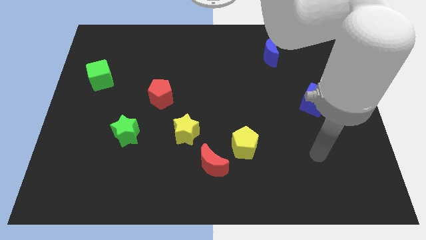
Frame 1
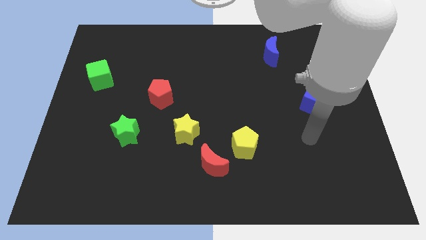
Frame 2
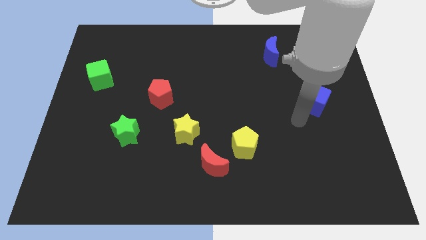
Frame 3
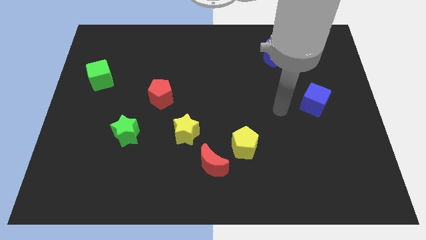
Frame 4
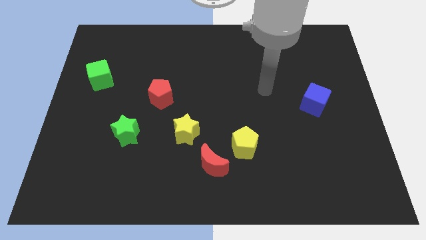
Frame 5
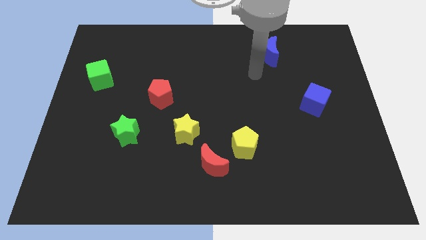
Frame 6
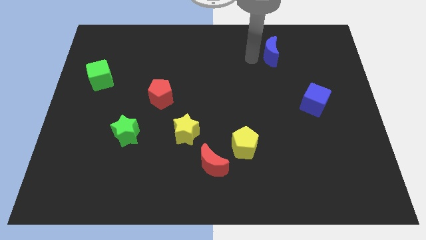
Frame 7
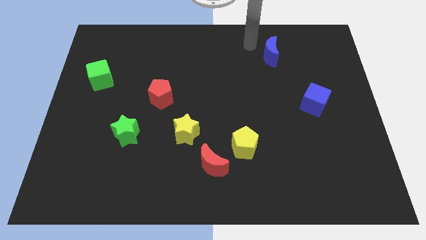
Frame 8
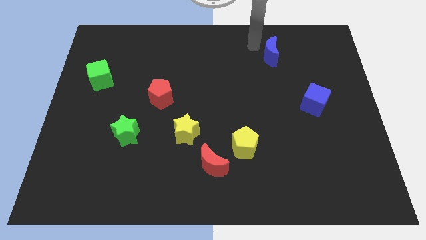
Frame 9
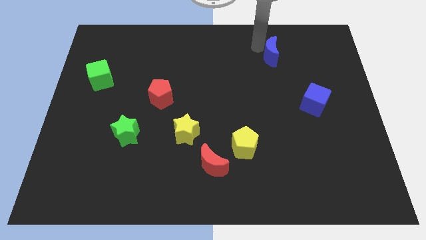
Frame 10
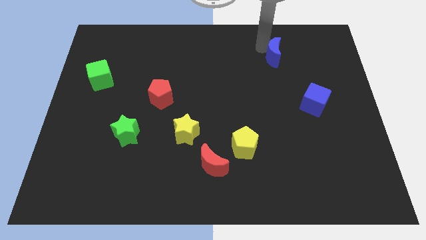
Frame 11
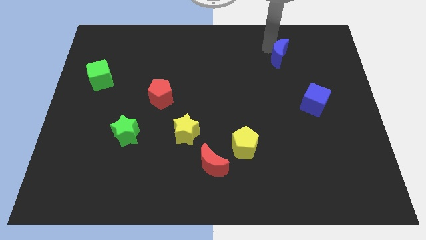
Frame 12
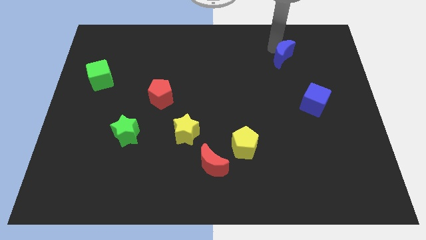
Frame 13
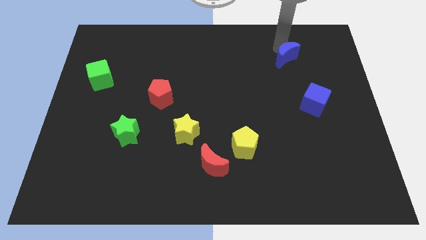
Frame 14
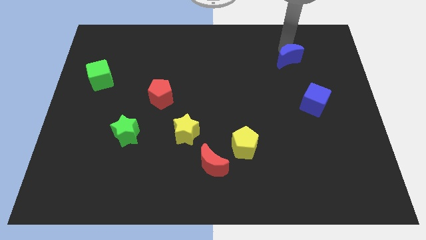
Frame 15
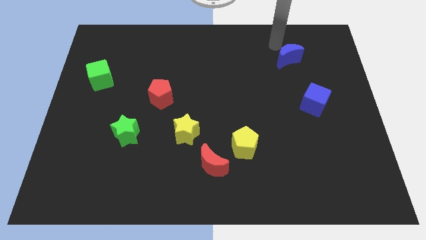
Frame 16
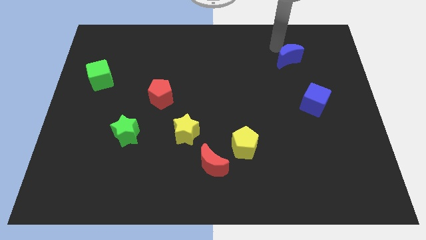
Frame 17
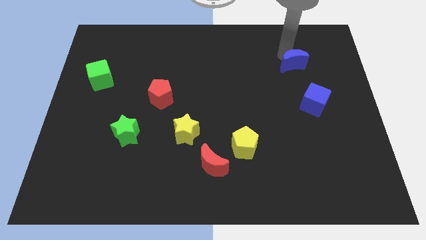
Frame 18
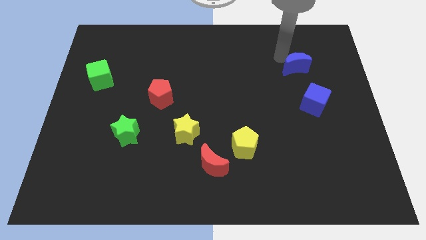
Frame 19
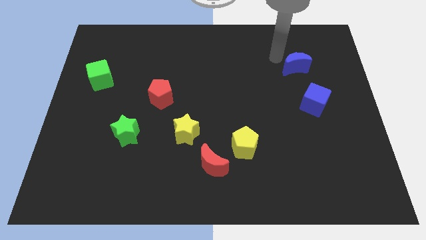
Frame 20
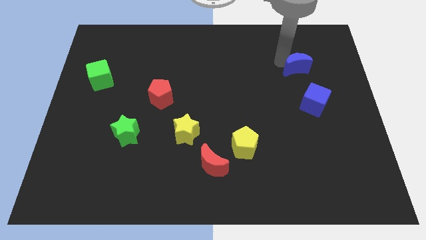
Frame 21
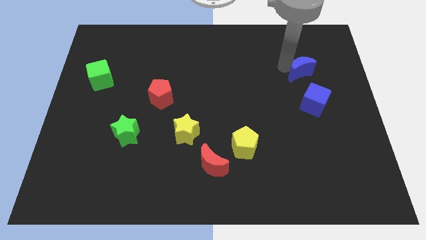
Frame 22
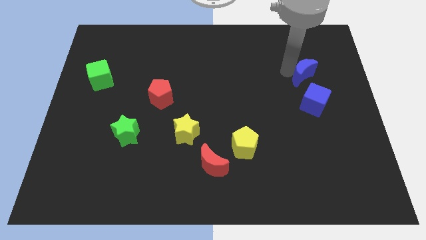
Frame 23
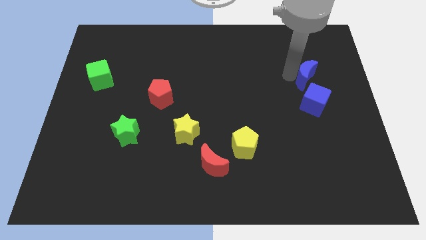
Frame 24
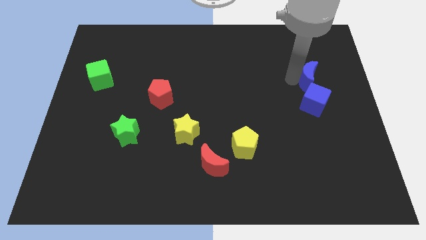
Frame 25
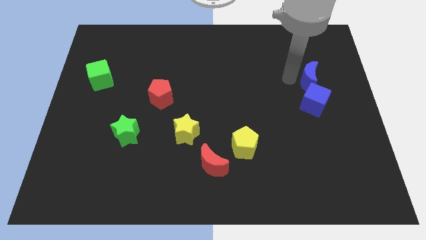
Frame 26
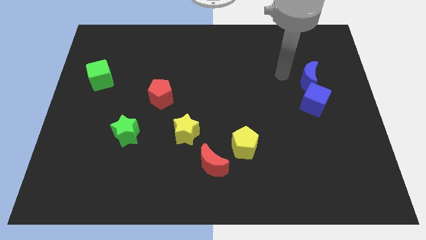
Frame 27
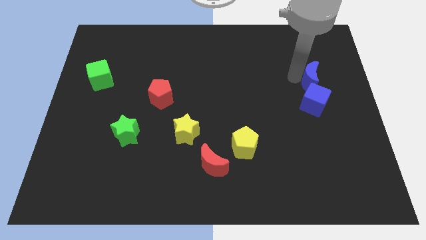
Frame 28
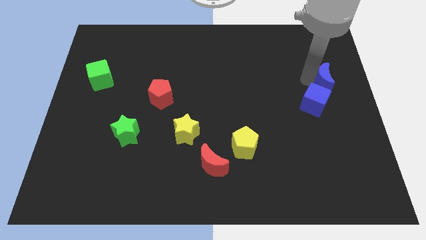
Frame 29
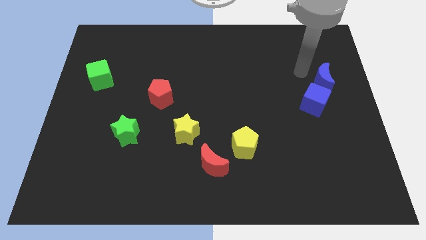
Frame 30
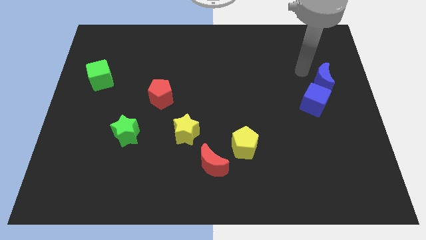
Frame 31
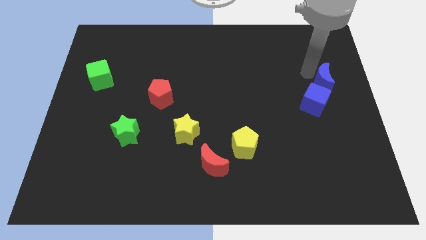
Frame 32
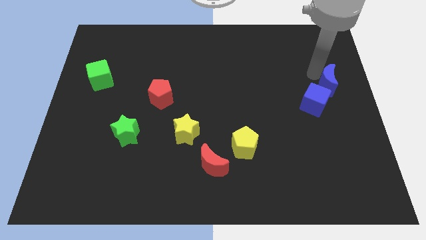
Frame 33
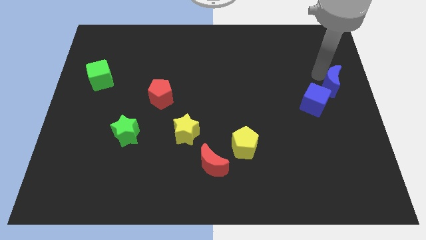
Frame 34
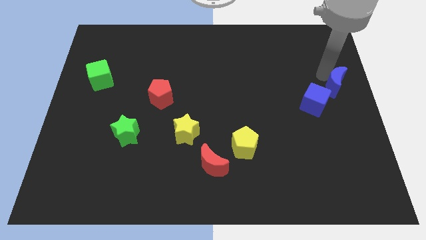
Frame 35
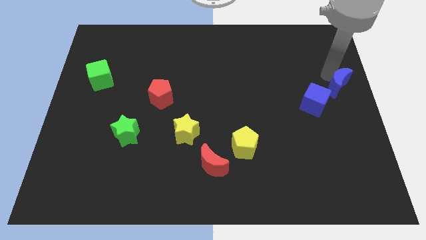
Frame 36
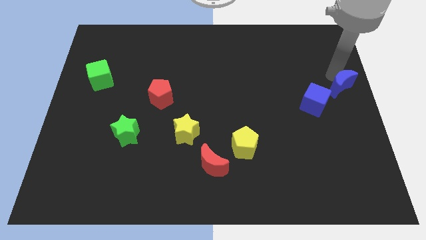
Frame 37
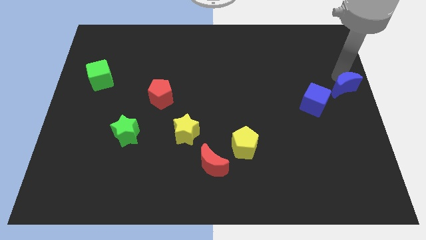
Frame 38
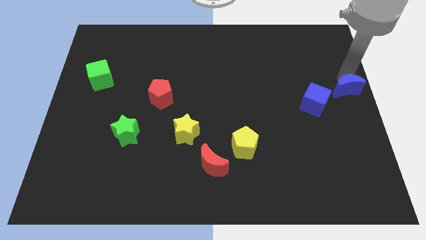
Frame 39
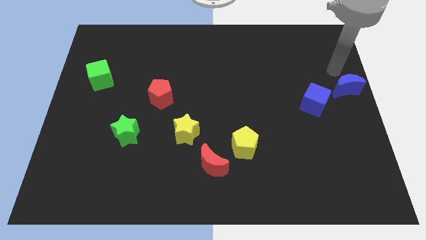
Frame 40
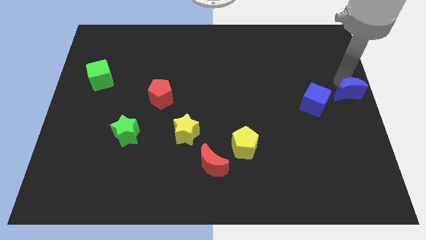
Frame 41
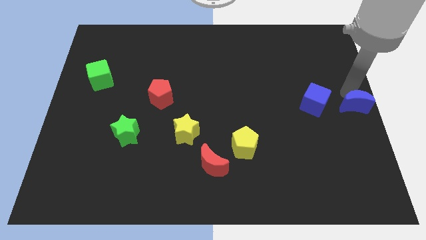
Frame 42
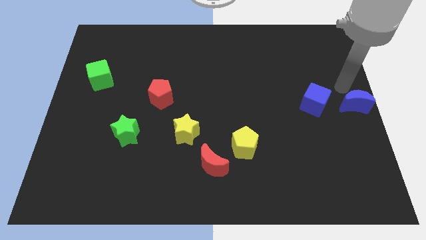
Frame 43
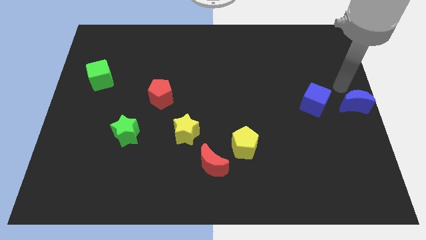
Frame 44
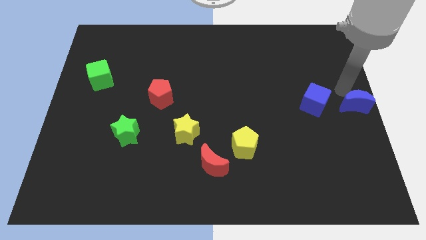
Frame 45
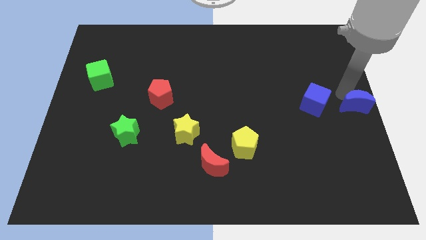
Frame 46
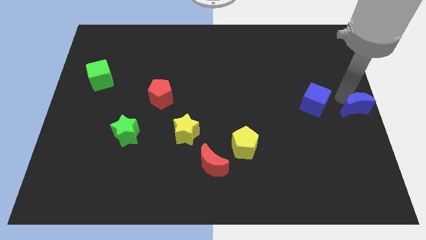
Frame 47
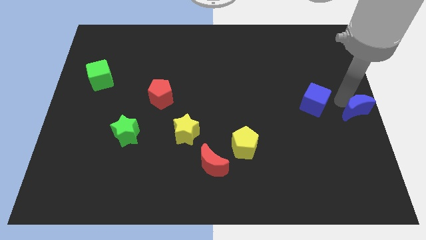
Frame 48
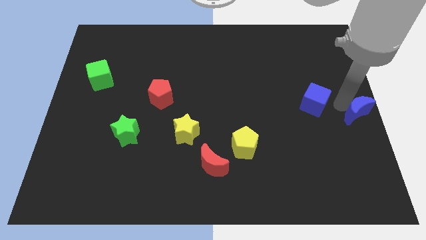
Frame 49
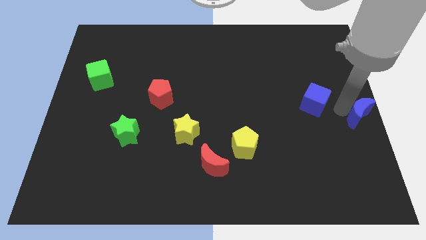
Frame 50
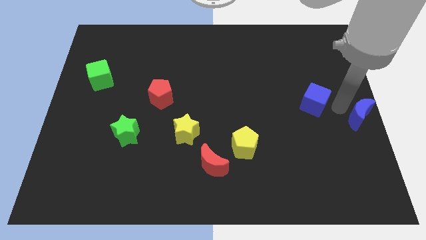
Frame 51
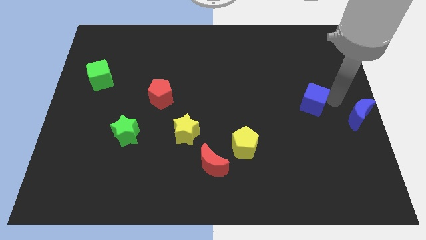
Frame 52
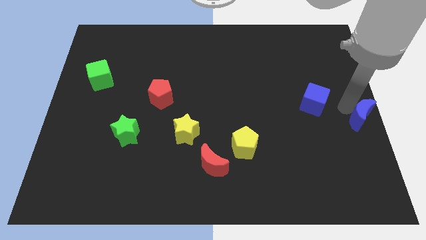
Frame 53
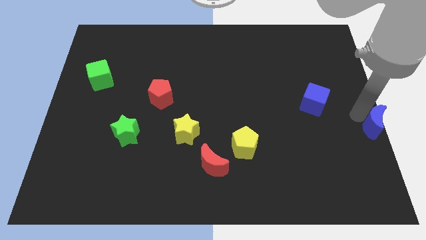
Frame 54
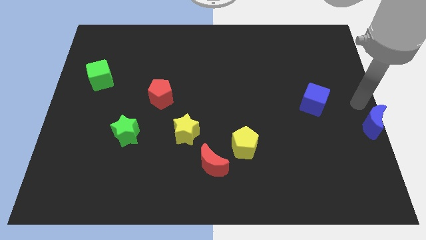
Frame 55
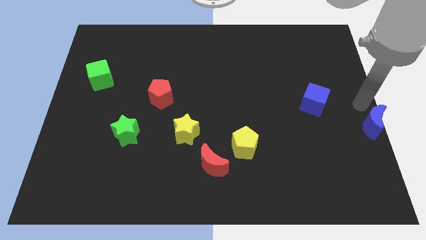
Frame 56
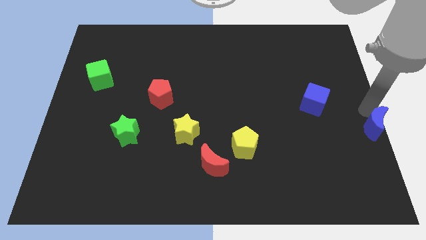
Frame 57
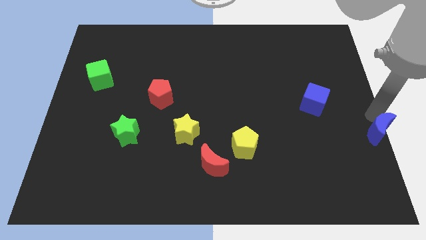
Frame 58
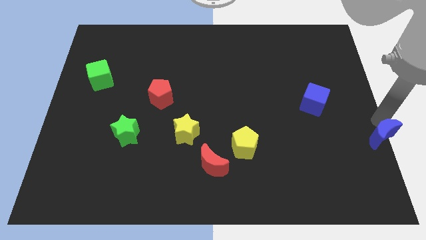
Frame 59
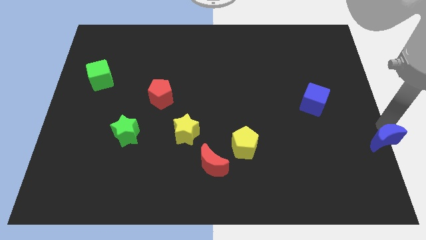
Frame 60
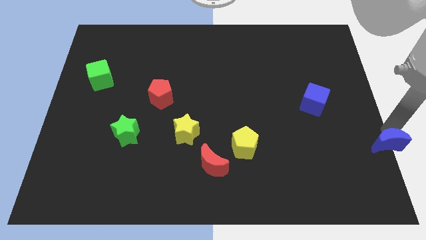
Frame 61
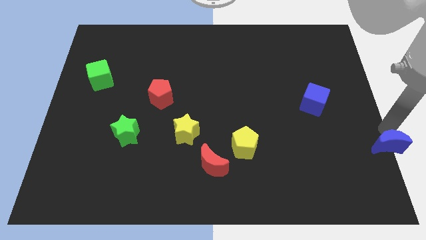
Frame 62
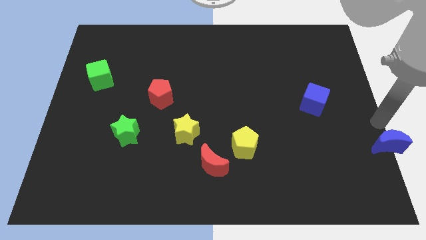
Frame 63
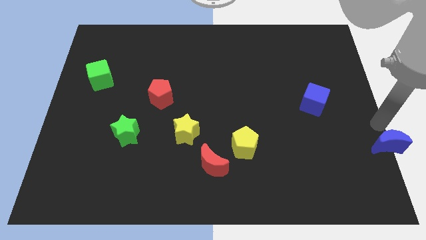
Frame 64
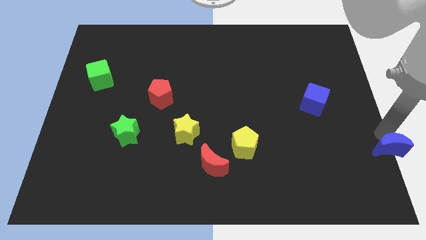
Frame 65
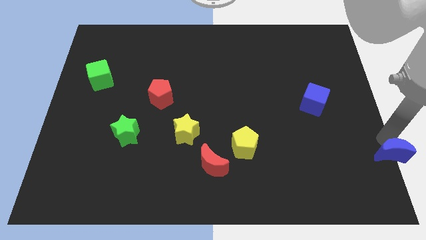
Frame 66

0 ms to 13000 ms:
push the blue moon to the bottom right of the board
